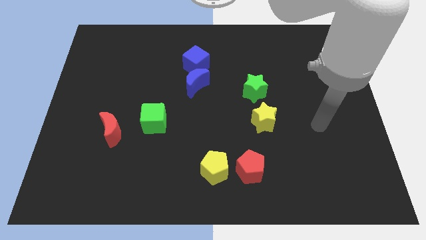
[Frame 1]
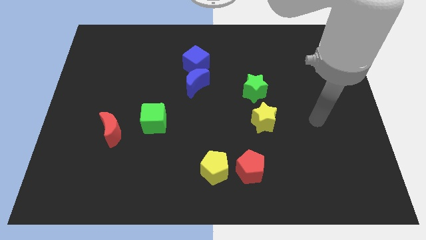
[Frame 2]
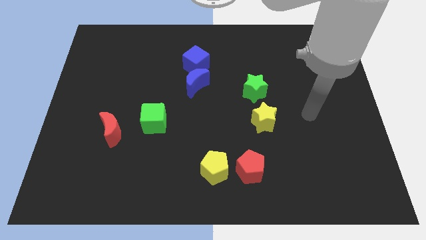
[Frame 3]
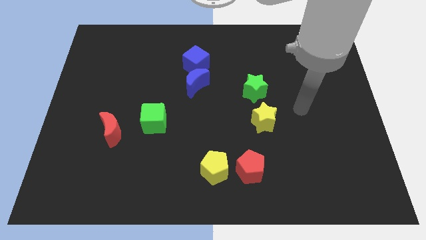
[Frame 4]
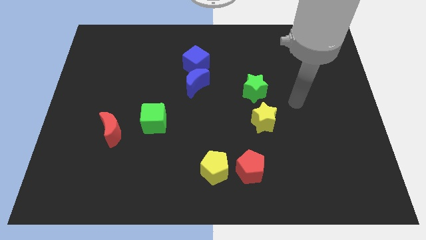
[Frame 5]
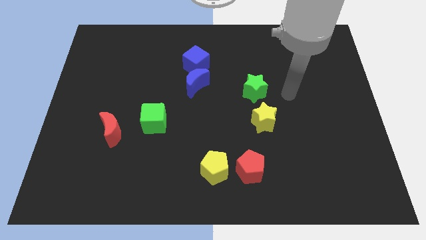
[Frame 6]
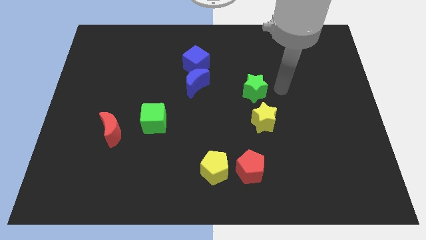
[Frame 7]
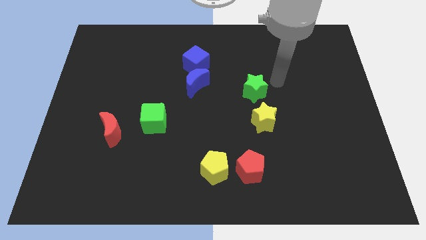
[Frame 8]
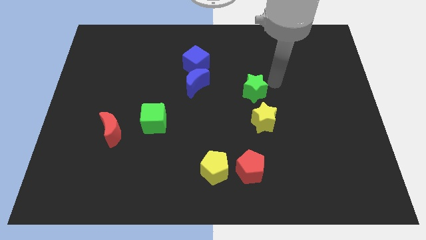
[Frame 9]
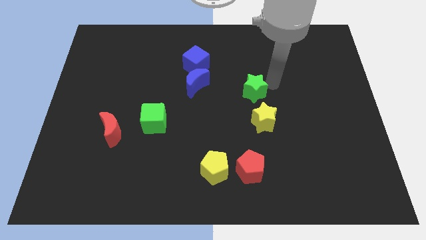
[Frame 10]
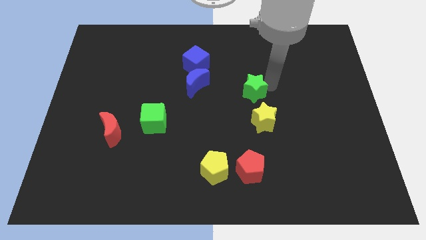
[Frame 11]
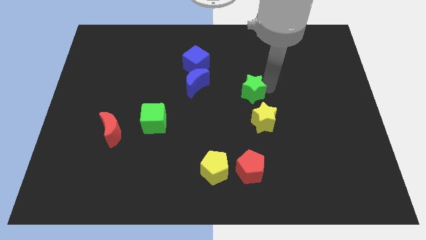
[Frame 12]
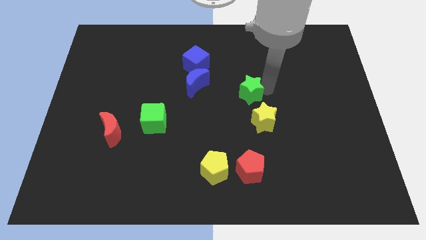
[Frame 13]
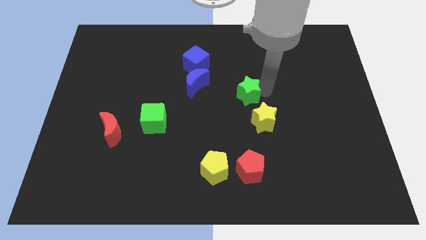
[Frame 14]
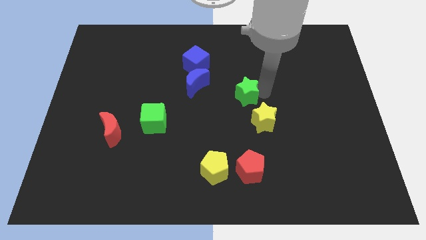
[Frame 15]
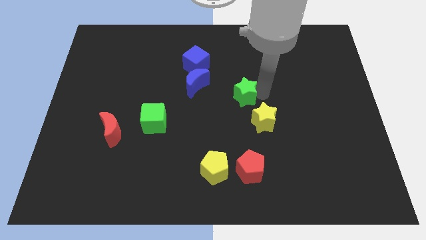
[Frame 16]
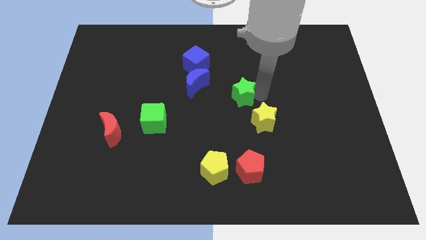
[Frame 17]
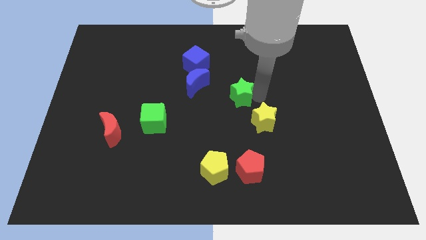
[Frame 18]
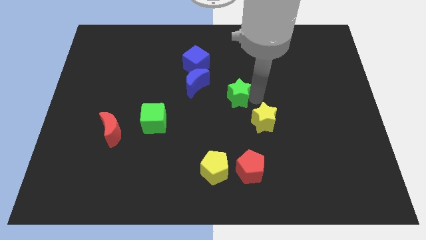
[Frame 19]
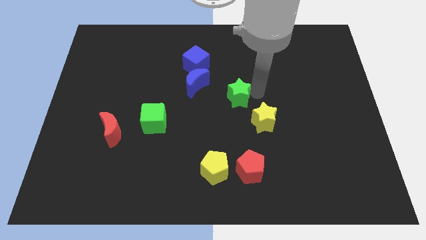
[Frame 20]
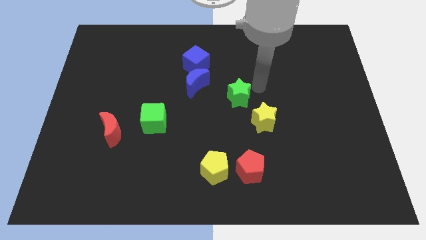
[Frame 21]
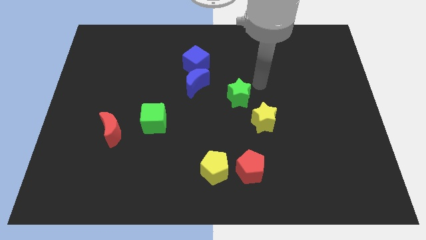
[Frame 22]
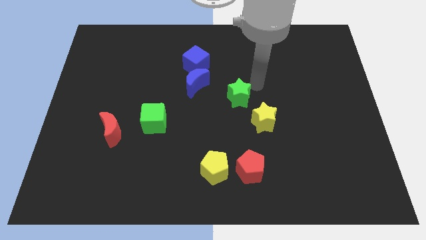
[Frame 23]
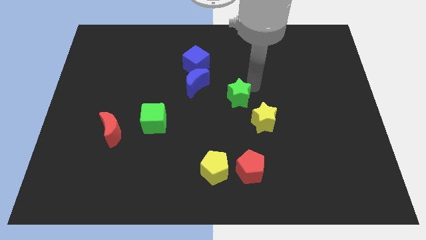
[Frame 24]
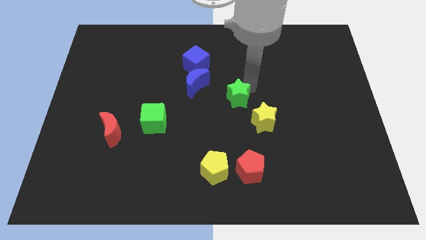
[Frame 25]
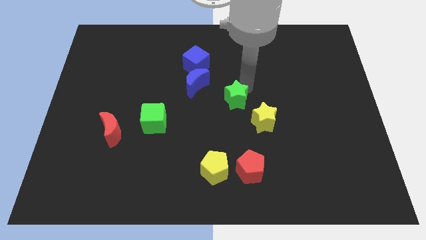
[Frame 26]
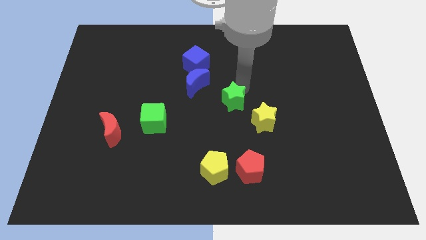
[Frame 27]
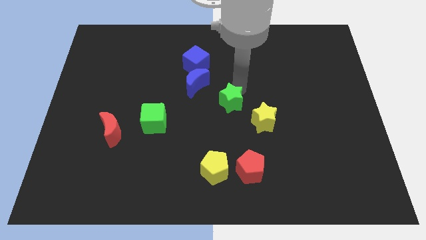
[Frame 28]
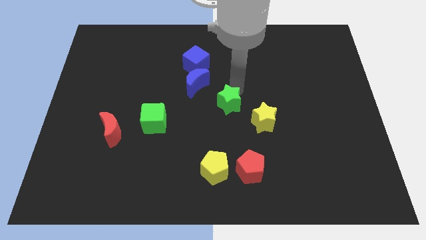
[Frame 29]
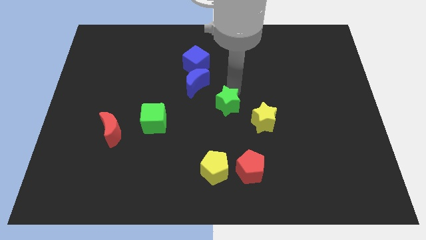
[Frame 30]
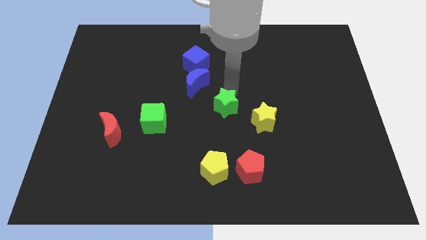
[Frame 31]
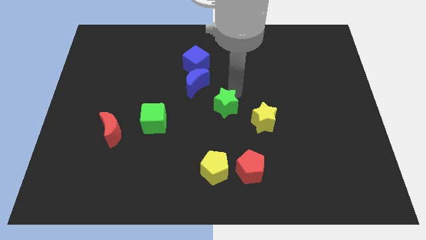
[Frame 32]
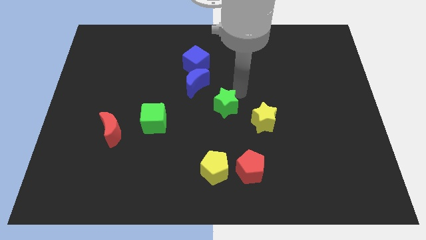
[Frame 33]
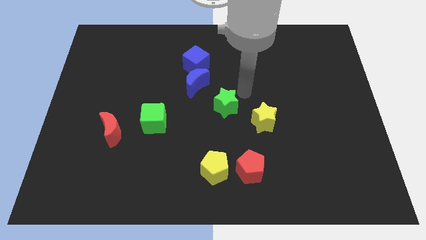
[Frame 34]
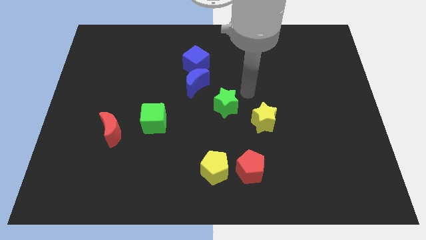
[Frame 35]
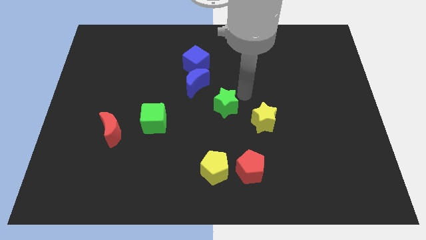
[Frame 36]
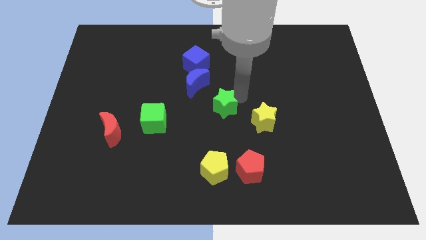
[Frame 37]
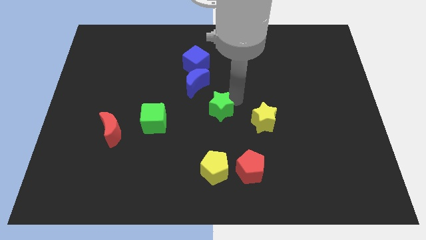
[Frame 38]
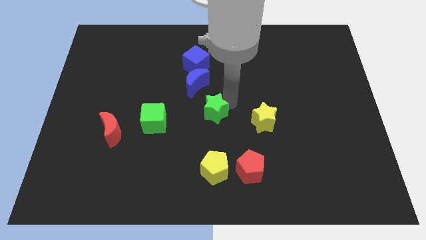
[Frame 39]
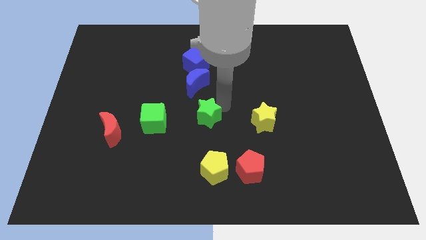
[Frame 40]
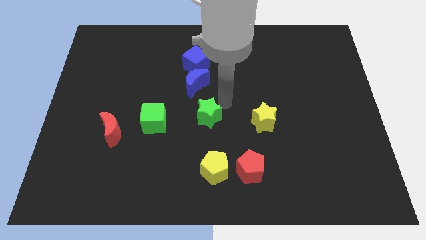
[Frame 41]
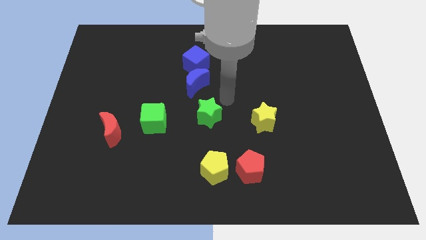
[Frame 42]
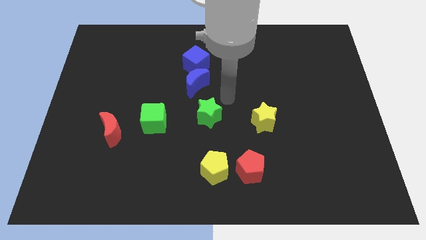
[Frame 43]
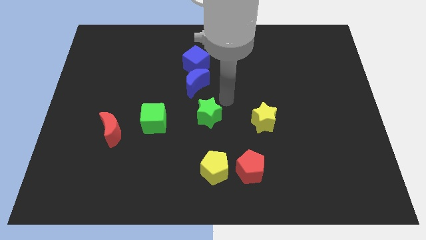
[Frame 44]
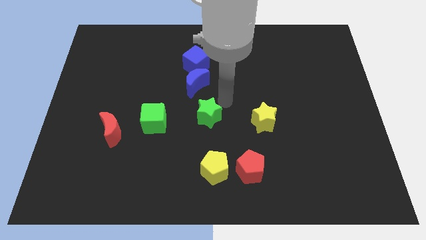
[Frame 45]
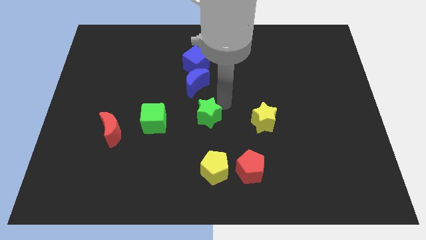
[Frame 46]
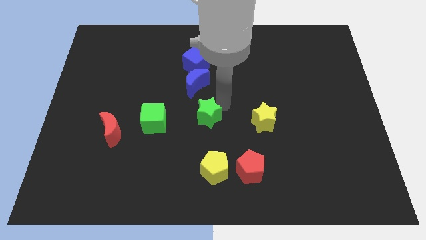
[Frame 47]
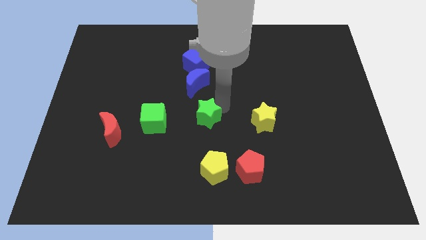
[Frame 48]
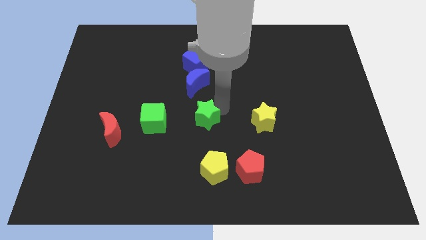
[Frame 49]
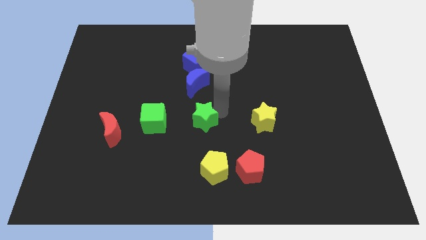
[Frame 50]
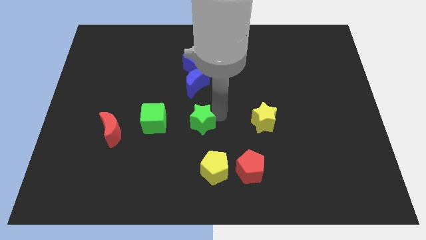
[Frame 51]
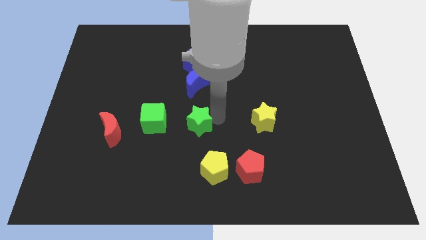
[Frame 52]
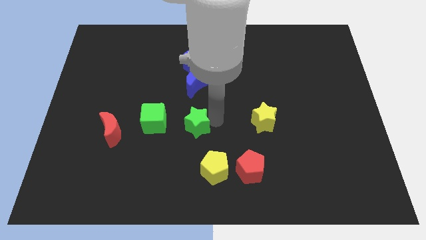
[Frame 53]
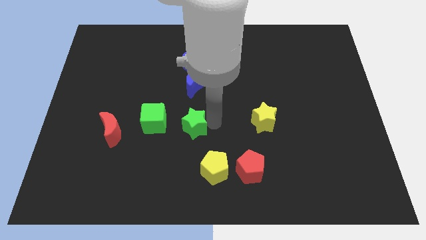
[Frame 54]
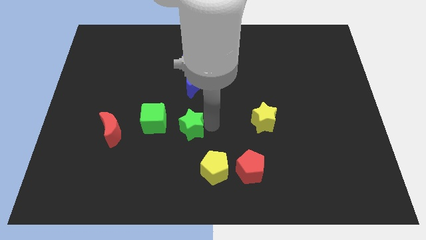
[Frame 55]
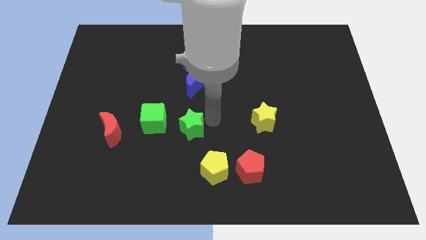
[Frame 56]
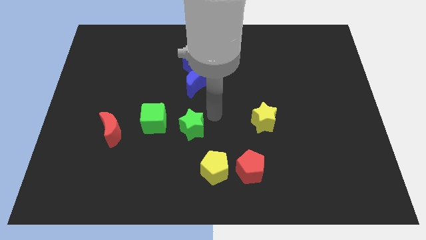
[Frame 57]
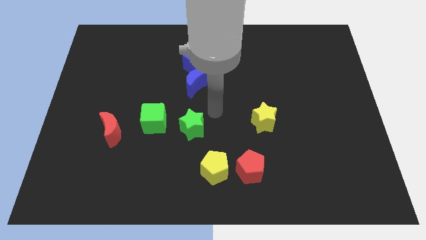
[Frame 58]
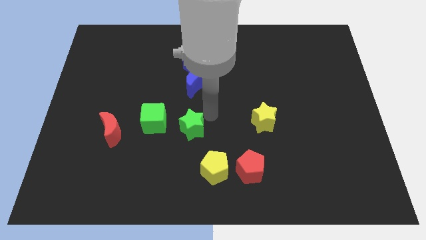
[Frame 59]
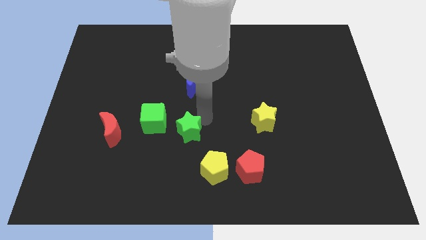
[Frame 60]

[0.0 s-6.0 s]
slide the green star diagonally down and to the right of the green cube
